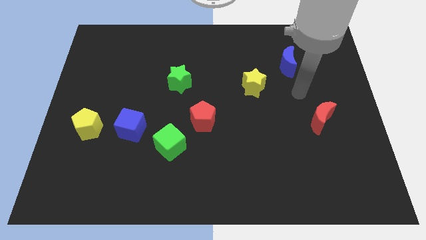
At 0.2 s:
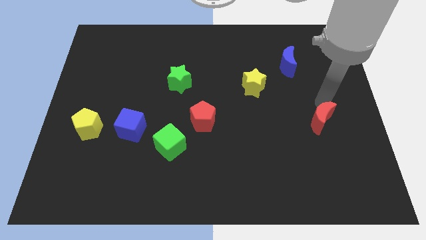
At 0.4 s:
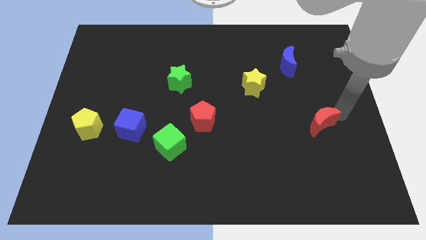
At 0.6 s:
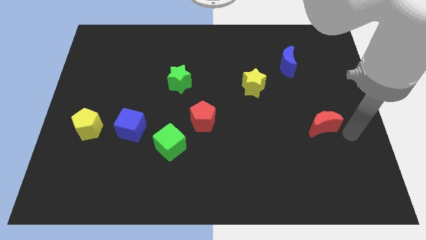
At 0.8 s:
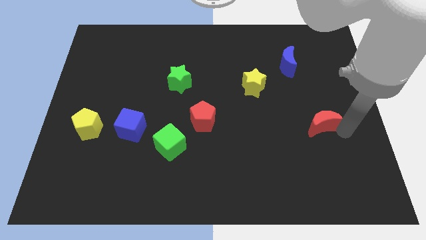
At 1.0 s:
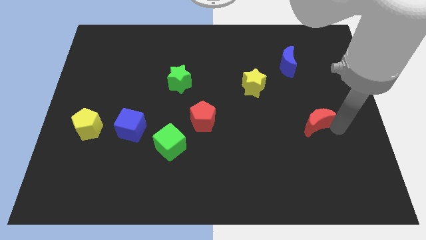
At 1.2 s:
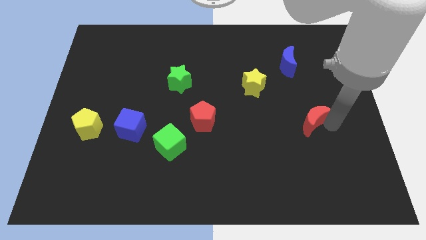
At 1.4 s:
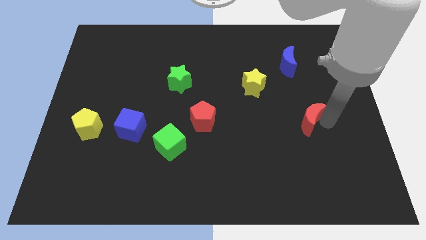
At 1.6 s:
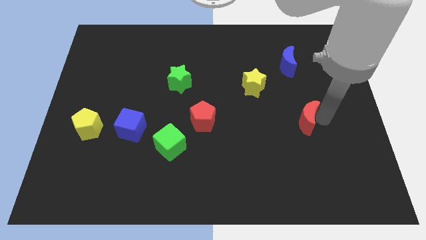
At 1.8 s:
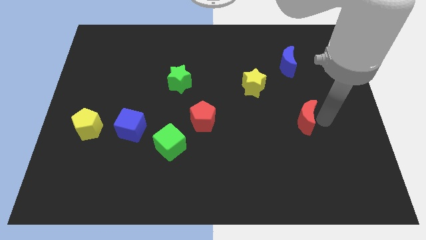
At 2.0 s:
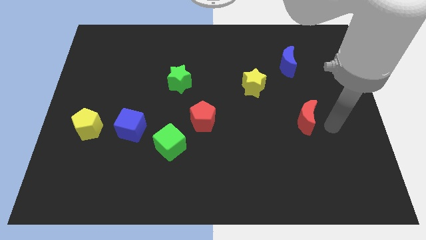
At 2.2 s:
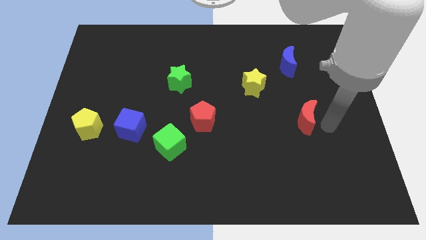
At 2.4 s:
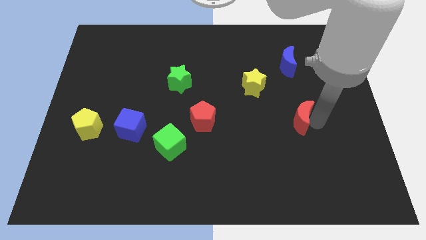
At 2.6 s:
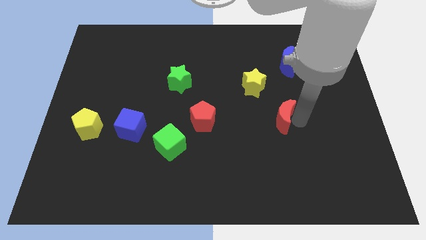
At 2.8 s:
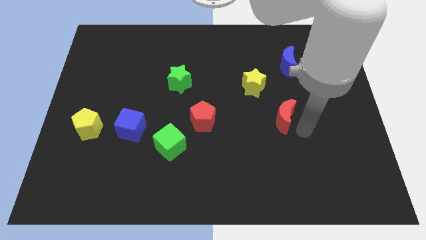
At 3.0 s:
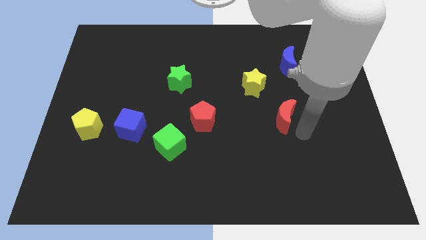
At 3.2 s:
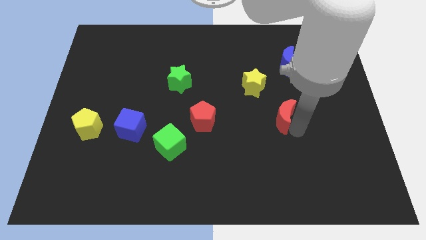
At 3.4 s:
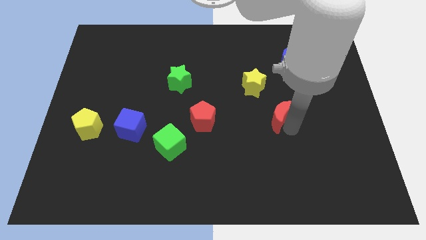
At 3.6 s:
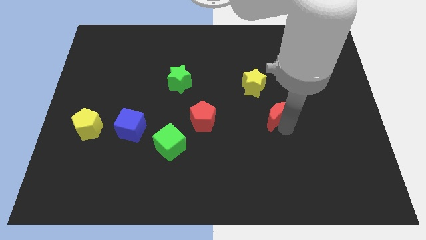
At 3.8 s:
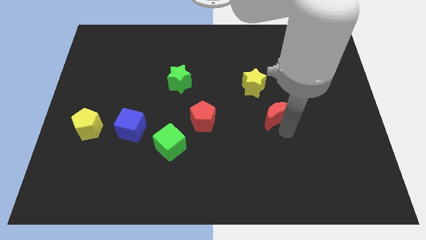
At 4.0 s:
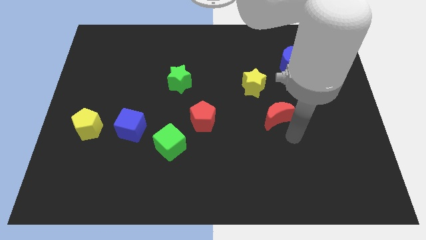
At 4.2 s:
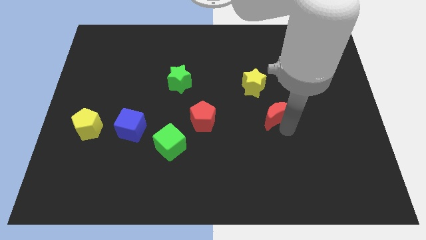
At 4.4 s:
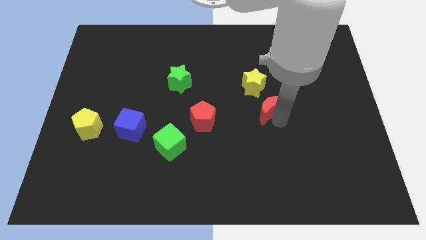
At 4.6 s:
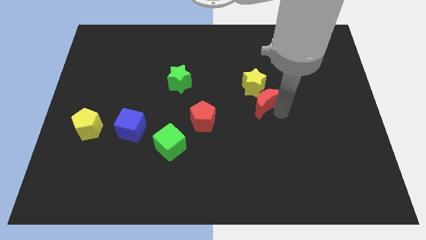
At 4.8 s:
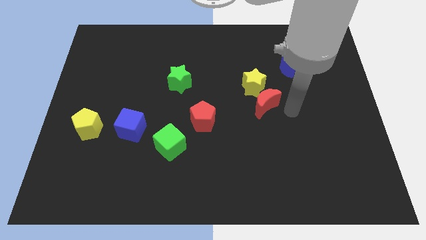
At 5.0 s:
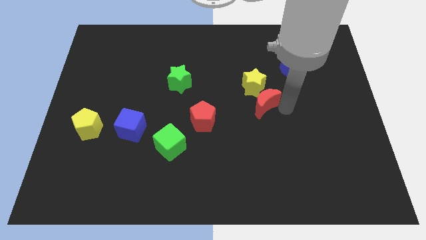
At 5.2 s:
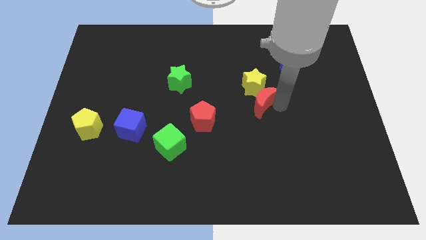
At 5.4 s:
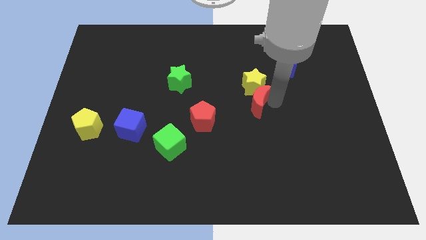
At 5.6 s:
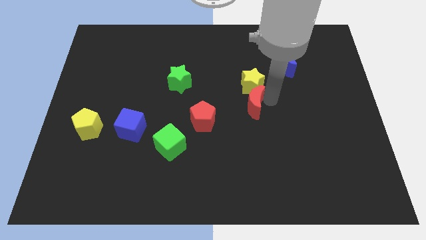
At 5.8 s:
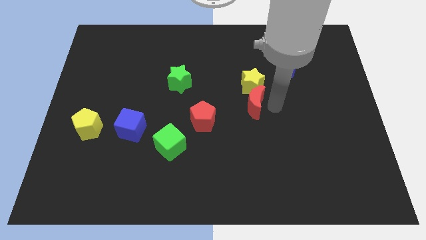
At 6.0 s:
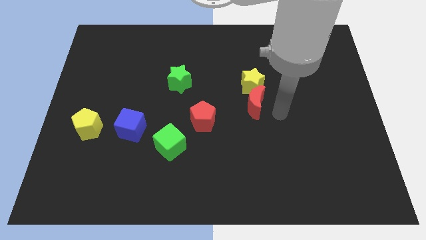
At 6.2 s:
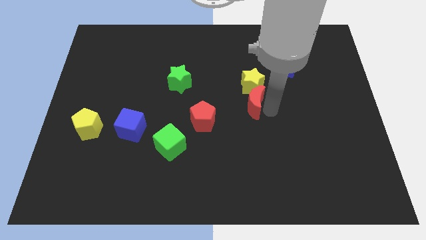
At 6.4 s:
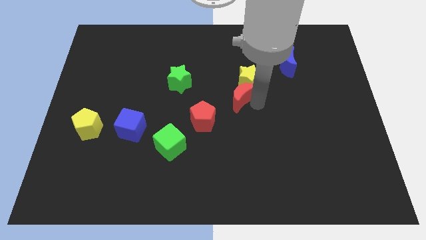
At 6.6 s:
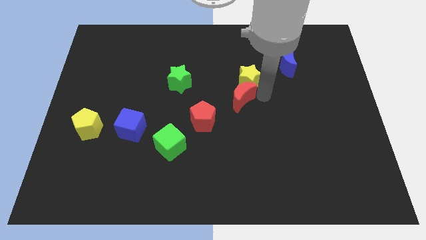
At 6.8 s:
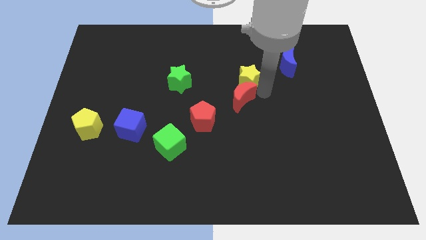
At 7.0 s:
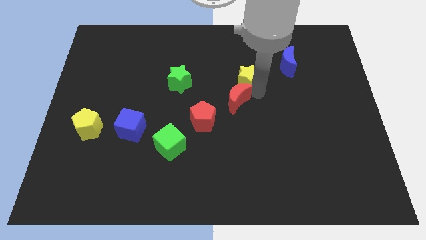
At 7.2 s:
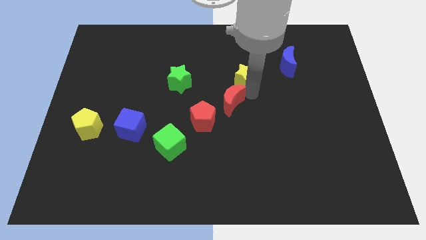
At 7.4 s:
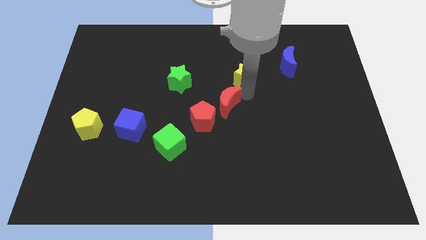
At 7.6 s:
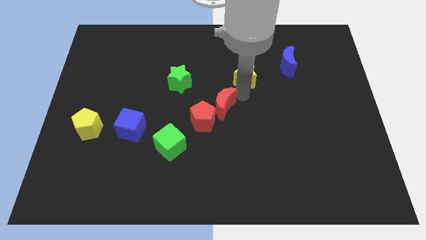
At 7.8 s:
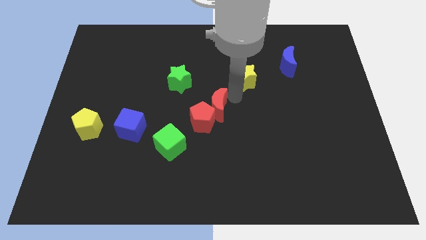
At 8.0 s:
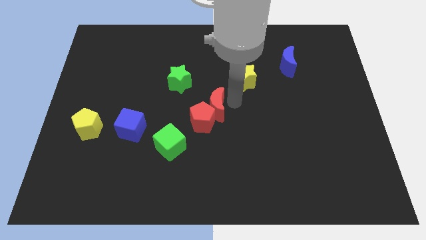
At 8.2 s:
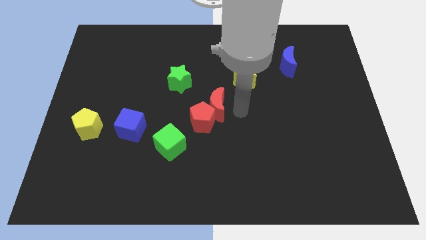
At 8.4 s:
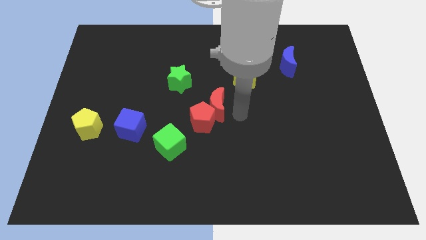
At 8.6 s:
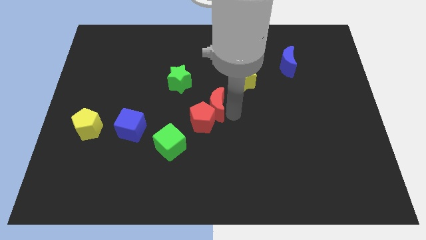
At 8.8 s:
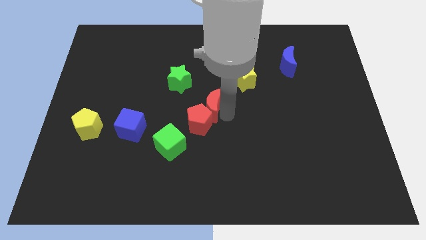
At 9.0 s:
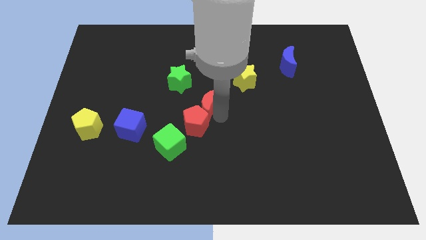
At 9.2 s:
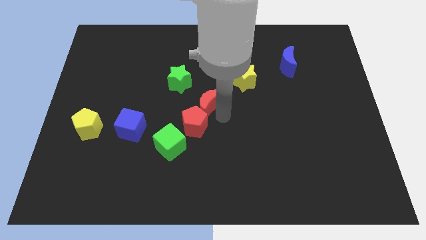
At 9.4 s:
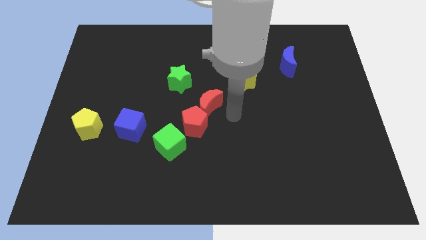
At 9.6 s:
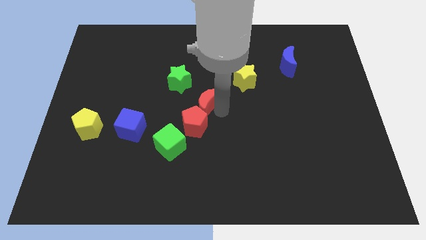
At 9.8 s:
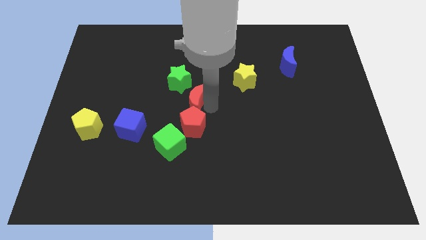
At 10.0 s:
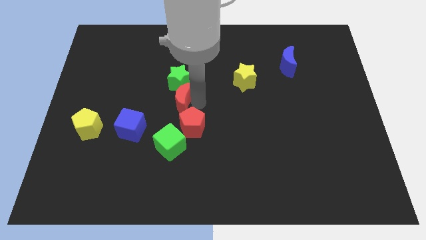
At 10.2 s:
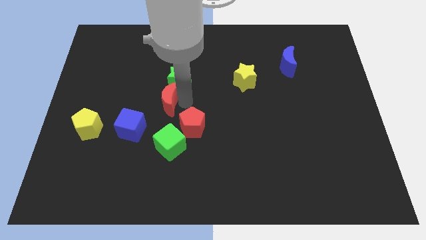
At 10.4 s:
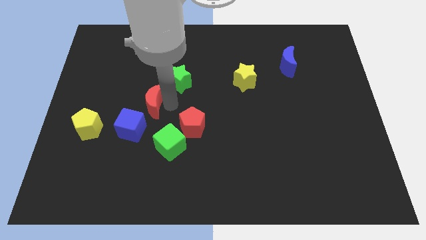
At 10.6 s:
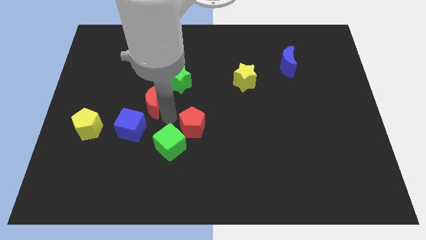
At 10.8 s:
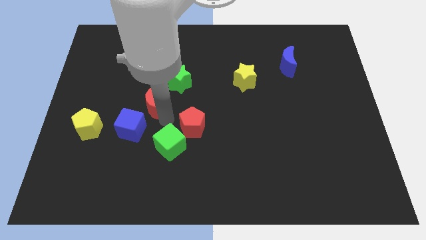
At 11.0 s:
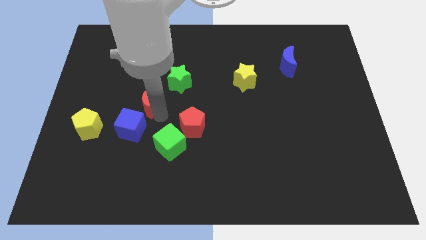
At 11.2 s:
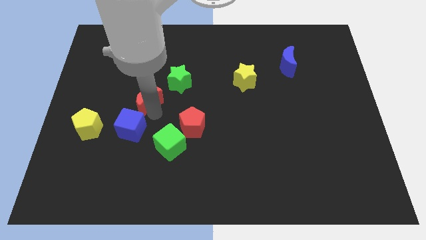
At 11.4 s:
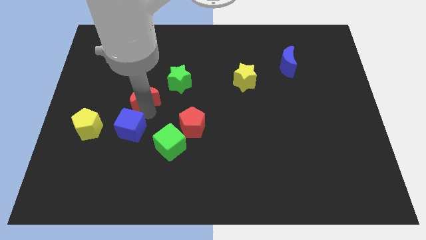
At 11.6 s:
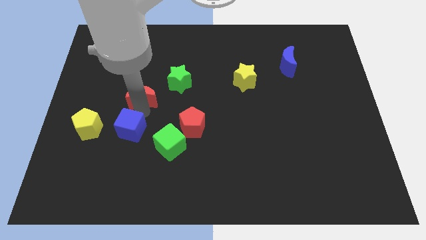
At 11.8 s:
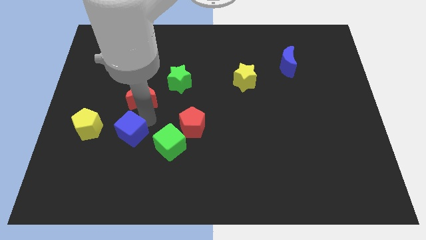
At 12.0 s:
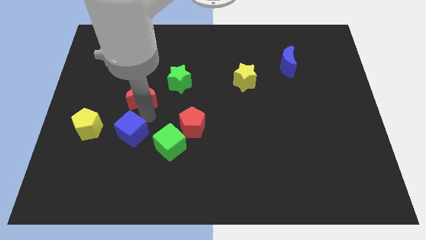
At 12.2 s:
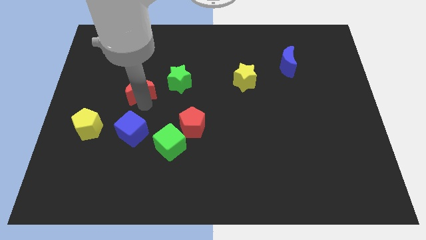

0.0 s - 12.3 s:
slide the red moon to the left side of the green star
